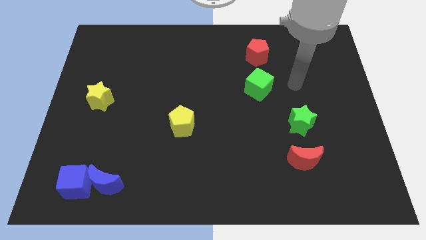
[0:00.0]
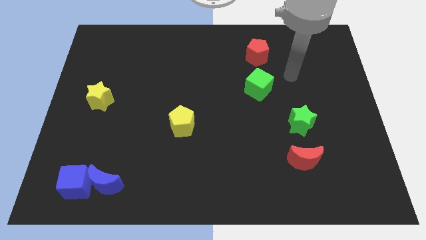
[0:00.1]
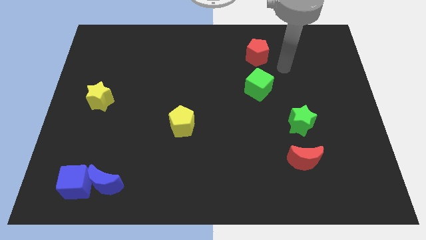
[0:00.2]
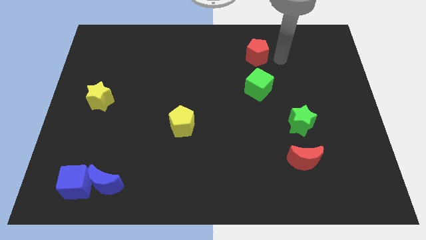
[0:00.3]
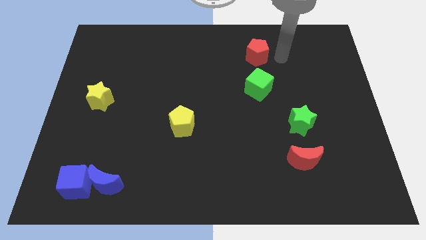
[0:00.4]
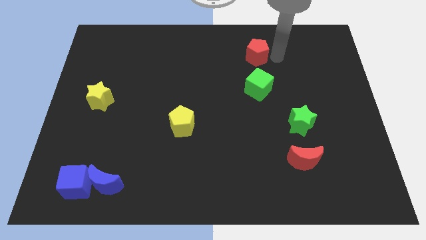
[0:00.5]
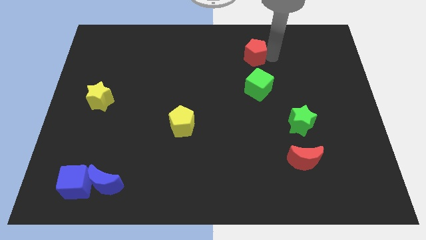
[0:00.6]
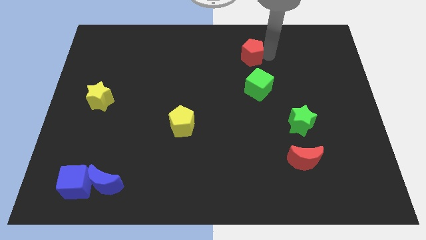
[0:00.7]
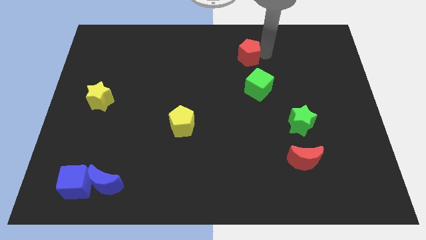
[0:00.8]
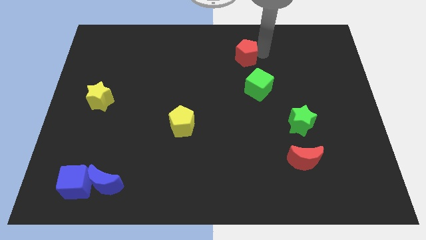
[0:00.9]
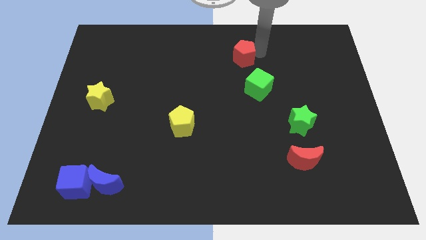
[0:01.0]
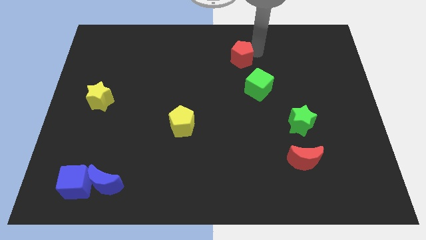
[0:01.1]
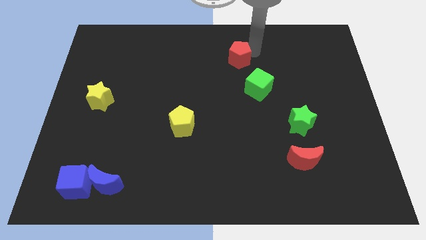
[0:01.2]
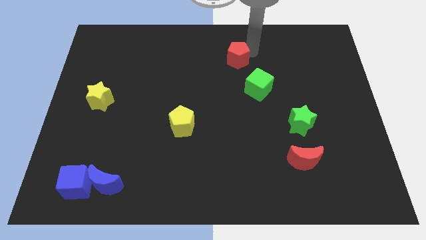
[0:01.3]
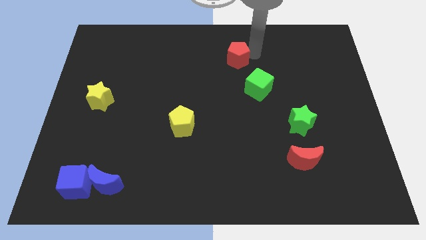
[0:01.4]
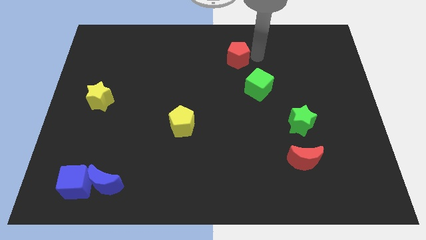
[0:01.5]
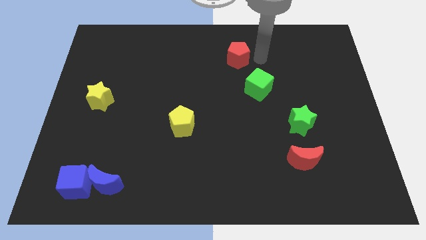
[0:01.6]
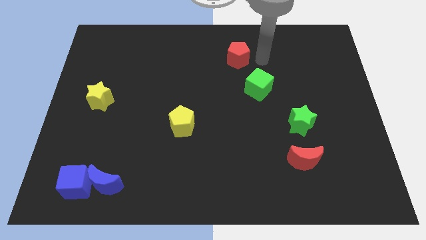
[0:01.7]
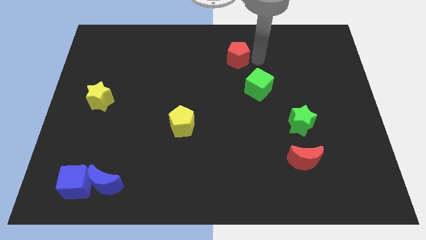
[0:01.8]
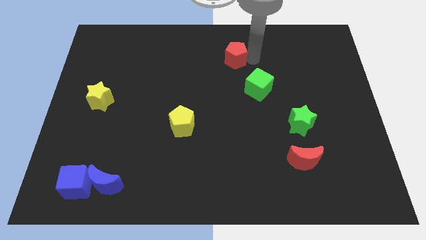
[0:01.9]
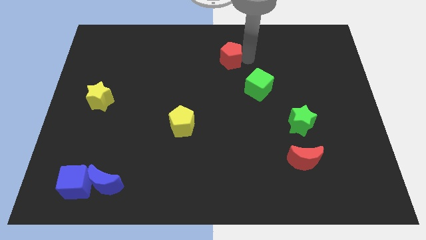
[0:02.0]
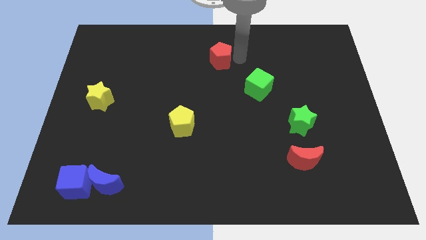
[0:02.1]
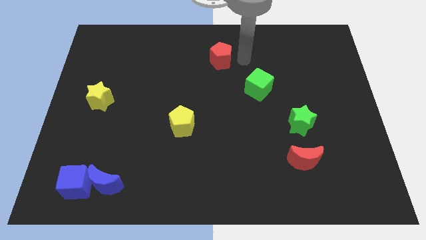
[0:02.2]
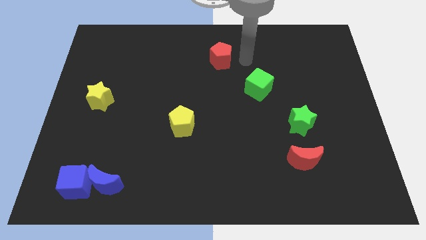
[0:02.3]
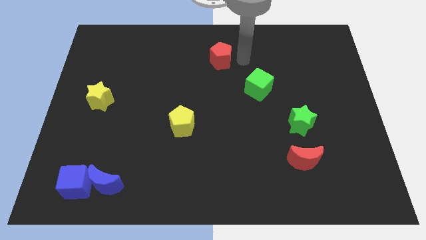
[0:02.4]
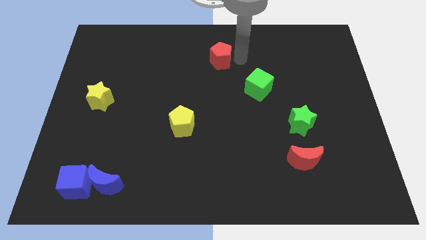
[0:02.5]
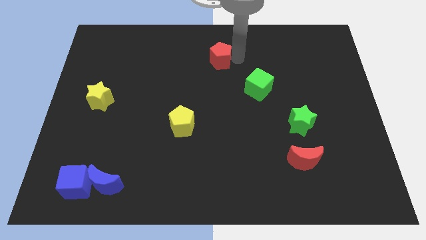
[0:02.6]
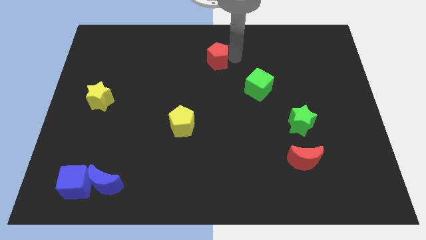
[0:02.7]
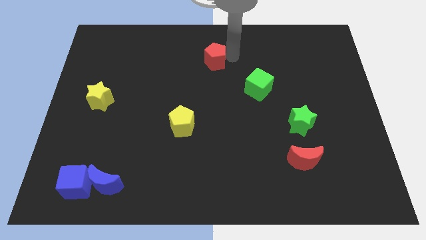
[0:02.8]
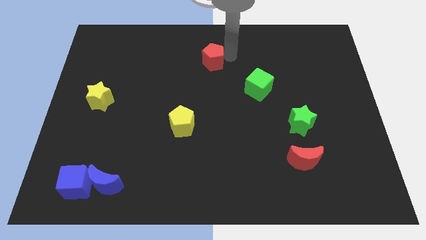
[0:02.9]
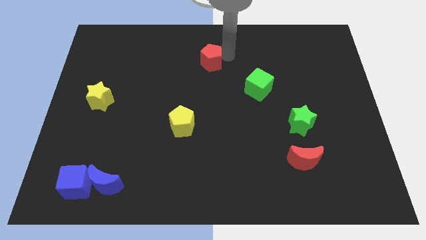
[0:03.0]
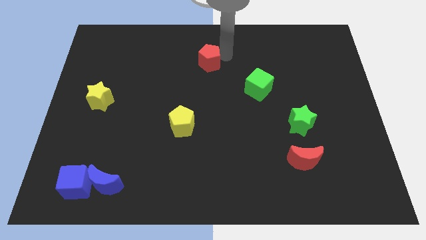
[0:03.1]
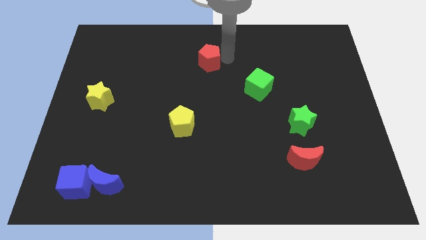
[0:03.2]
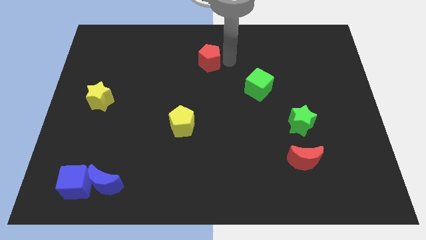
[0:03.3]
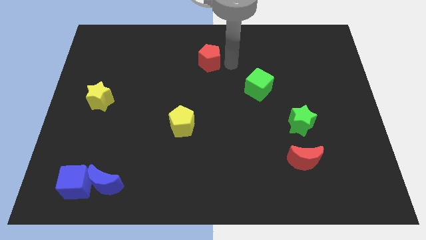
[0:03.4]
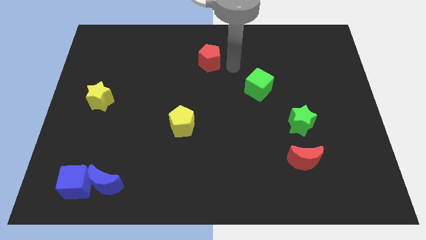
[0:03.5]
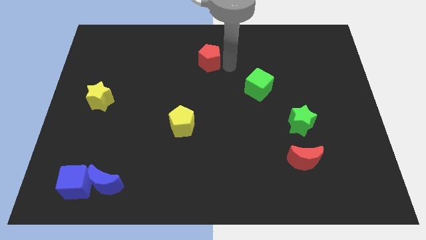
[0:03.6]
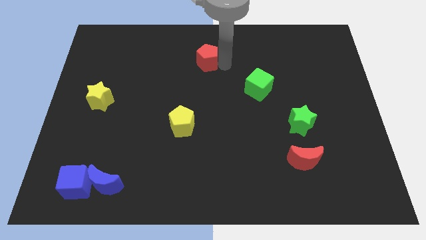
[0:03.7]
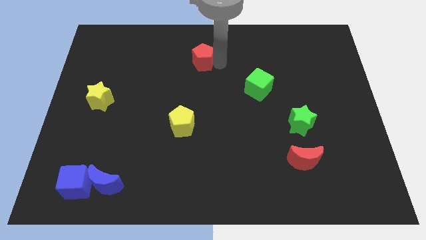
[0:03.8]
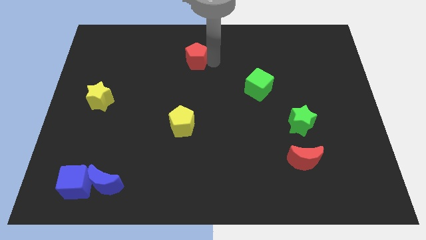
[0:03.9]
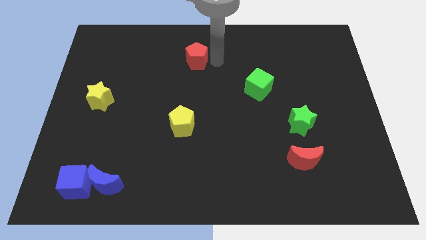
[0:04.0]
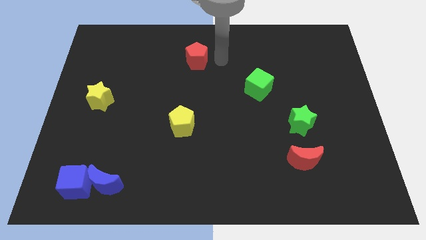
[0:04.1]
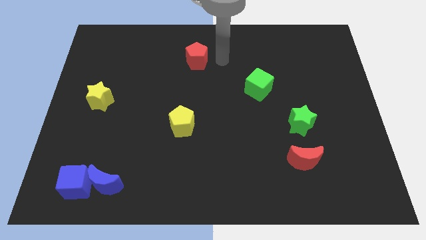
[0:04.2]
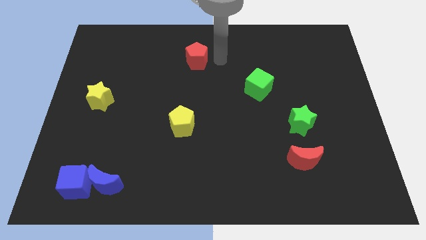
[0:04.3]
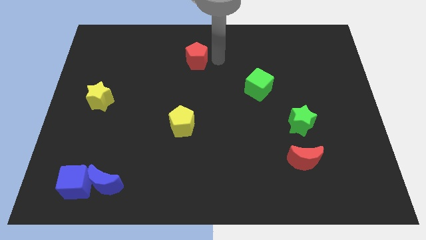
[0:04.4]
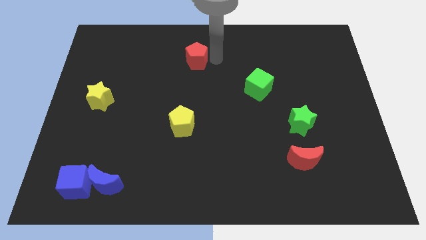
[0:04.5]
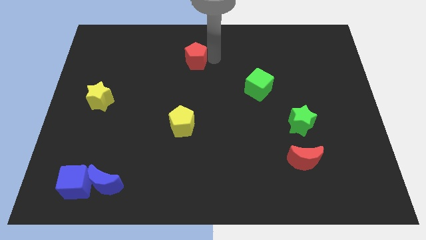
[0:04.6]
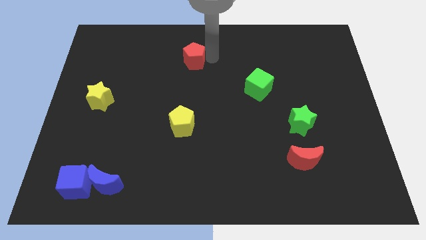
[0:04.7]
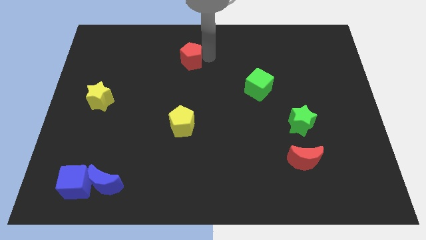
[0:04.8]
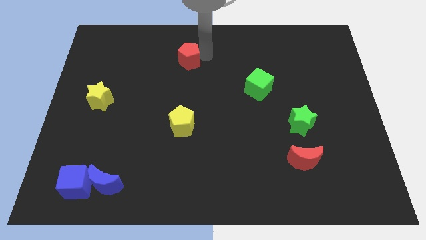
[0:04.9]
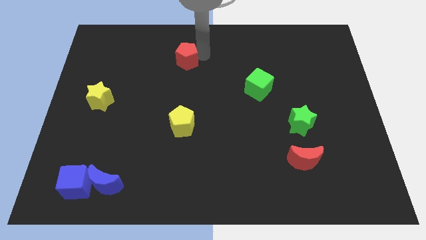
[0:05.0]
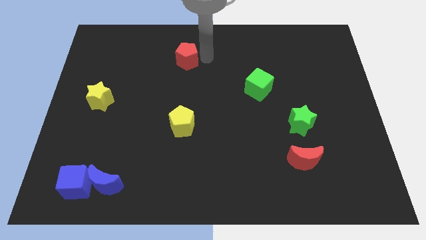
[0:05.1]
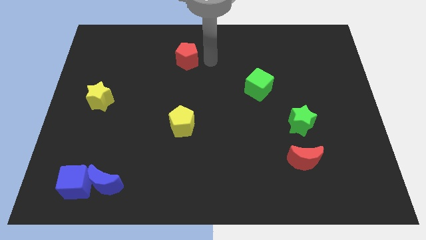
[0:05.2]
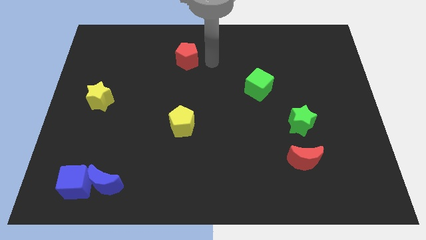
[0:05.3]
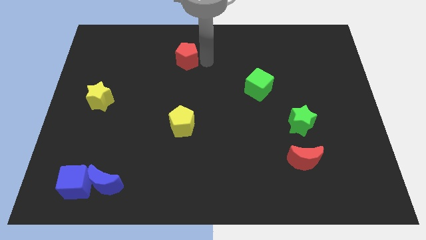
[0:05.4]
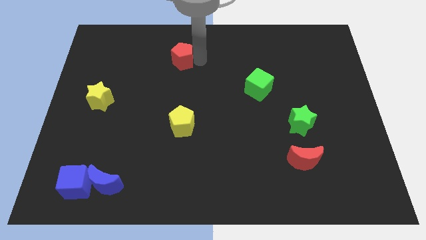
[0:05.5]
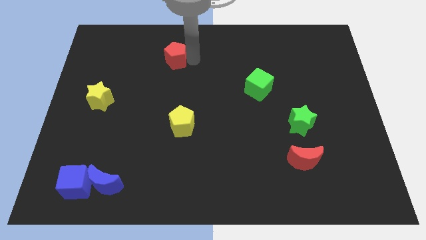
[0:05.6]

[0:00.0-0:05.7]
move the red pentagon to the left

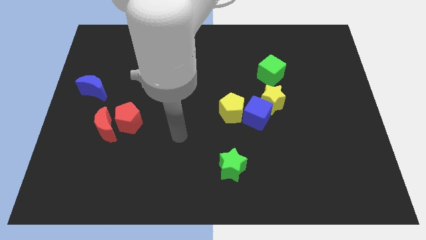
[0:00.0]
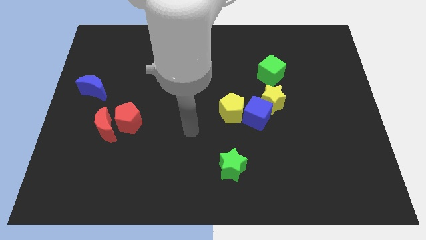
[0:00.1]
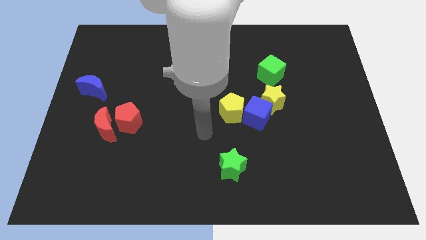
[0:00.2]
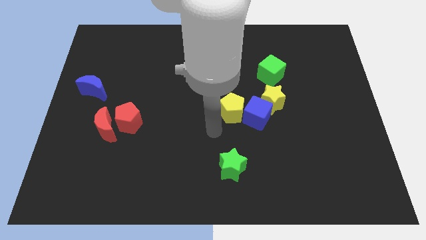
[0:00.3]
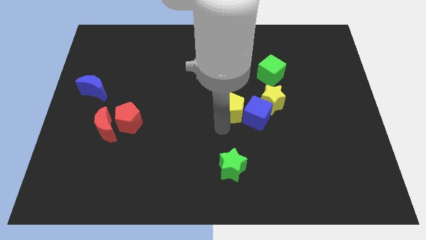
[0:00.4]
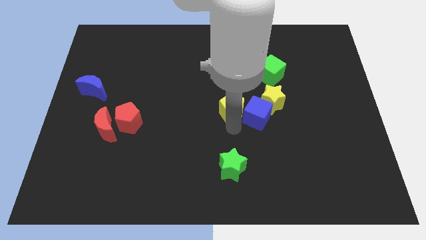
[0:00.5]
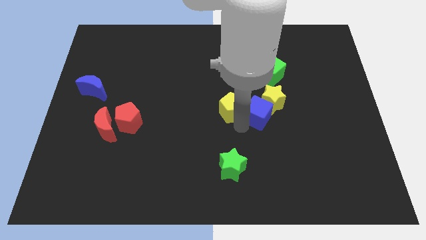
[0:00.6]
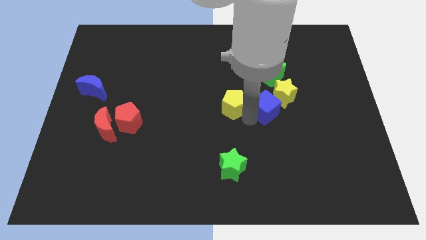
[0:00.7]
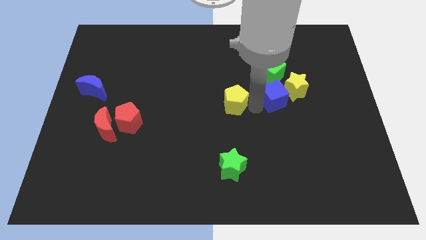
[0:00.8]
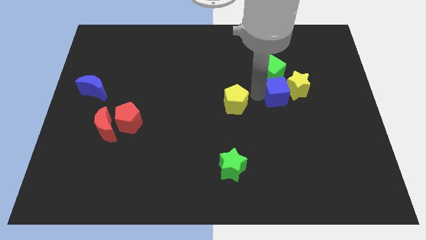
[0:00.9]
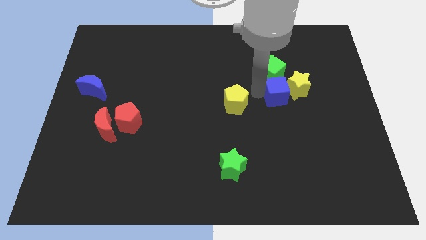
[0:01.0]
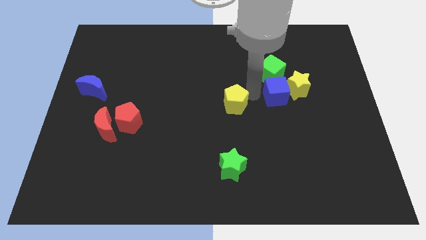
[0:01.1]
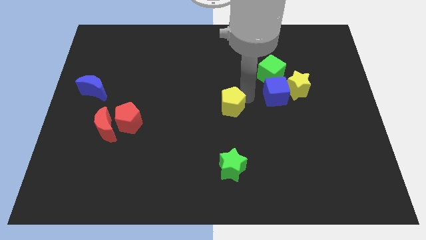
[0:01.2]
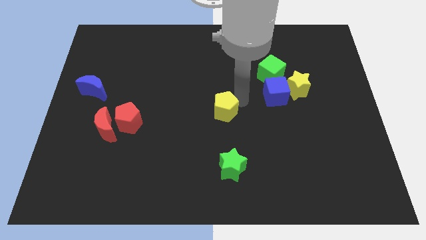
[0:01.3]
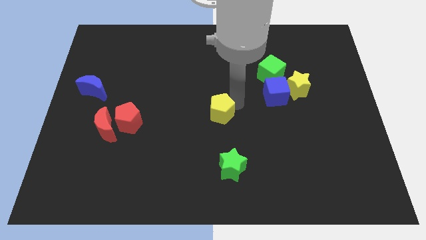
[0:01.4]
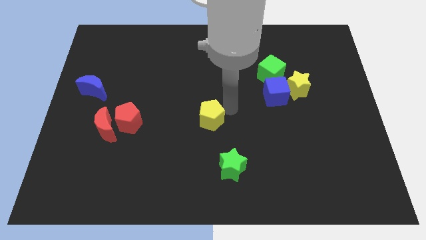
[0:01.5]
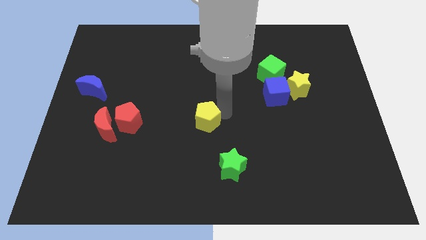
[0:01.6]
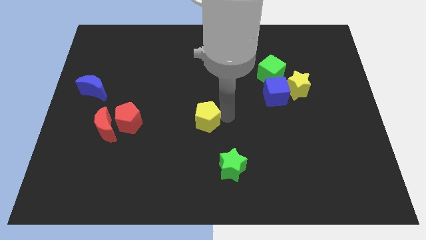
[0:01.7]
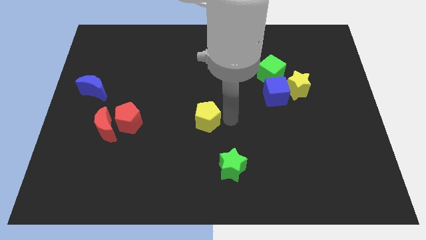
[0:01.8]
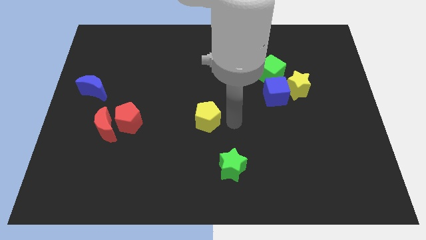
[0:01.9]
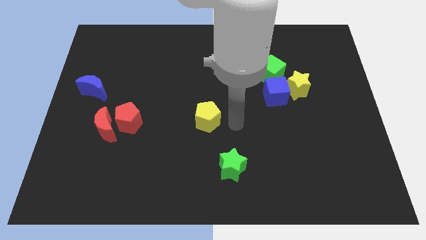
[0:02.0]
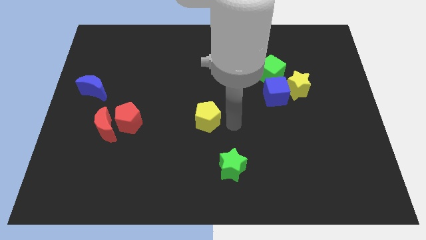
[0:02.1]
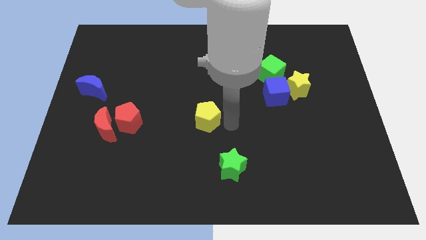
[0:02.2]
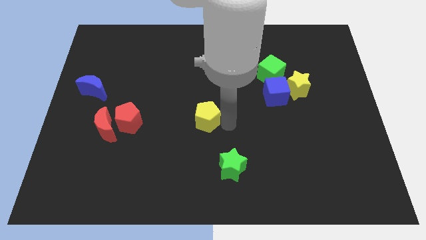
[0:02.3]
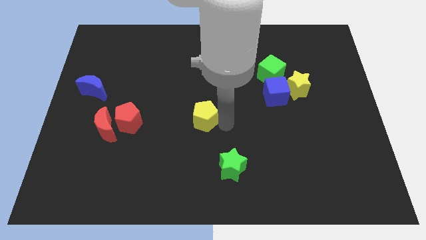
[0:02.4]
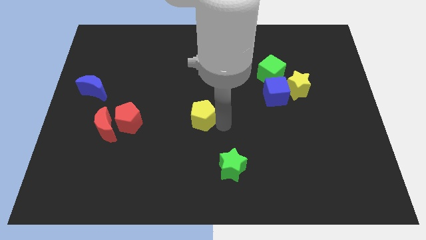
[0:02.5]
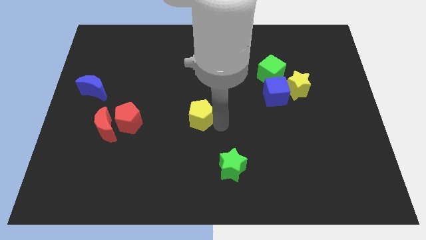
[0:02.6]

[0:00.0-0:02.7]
slide the yellow pentagon left slightly
